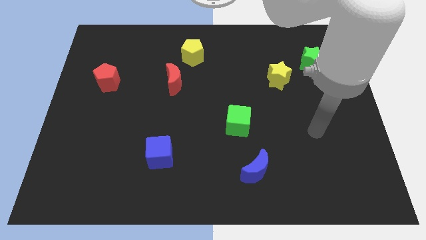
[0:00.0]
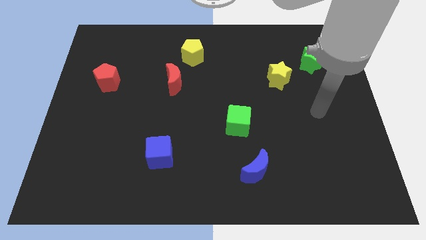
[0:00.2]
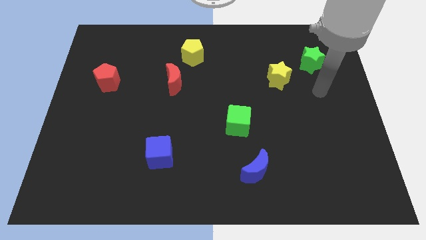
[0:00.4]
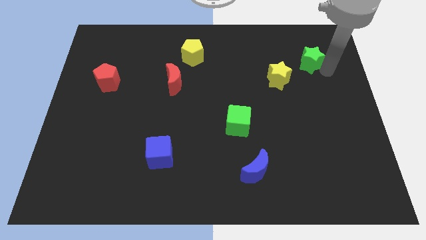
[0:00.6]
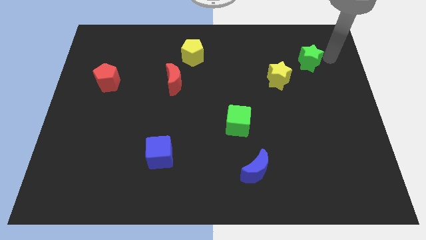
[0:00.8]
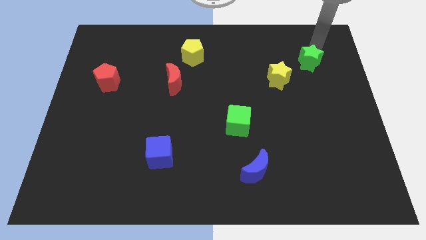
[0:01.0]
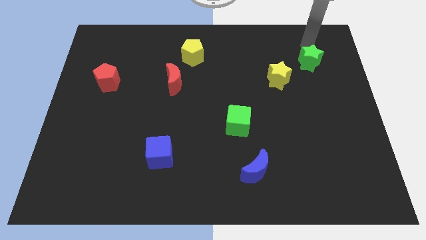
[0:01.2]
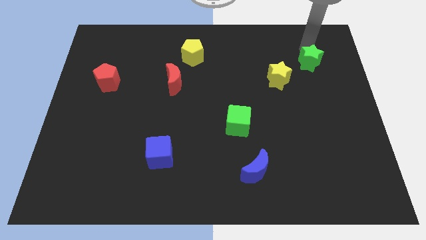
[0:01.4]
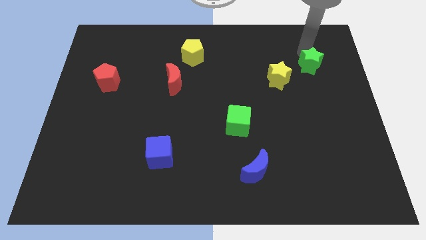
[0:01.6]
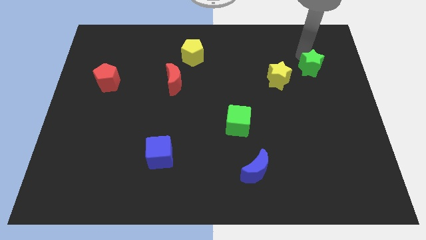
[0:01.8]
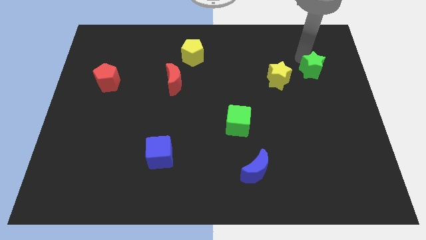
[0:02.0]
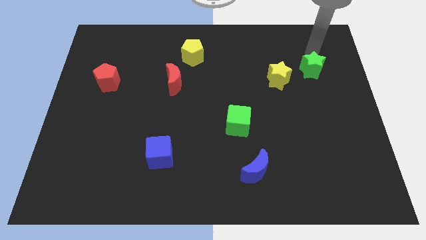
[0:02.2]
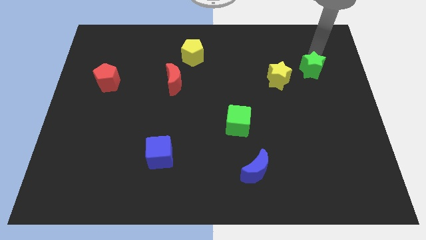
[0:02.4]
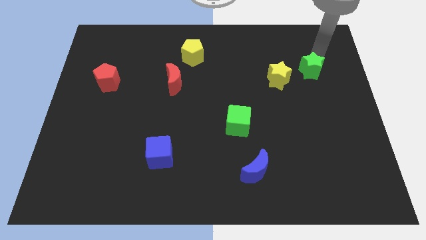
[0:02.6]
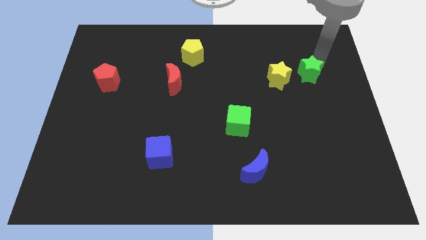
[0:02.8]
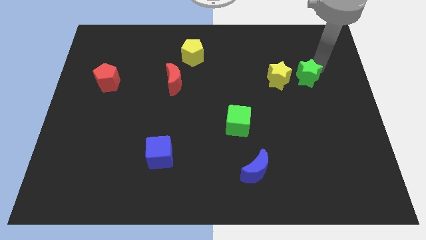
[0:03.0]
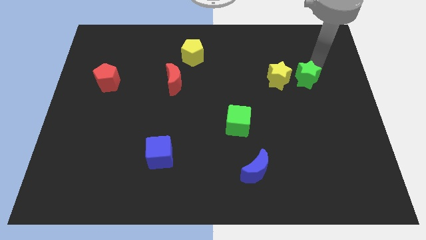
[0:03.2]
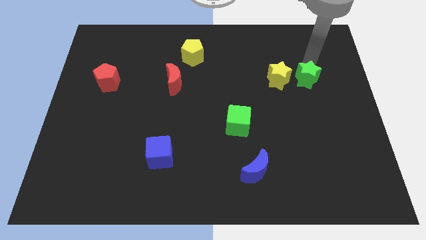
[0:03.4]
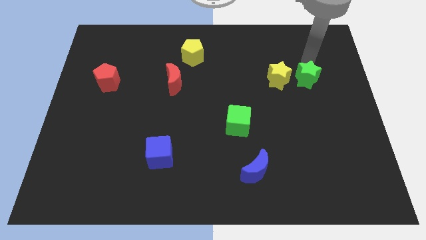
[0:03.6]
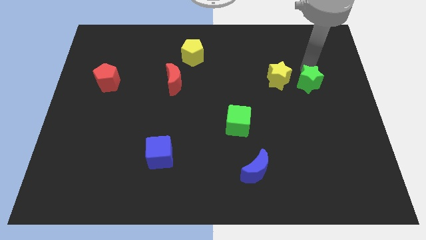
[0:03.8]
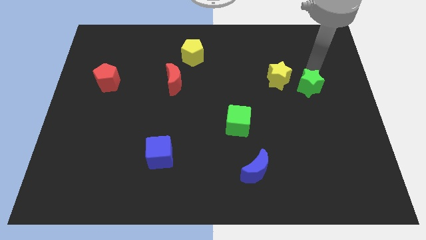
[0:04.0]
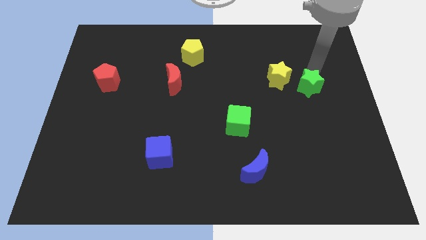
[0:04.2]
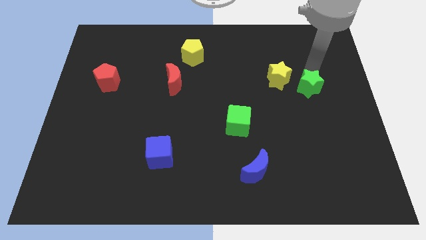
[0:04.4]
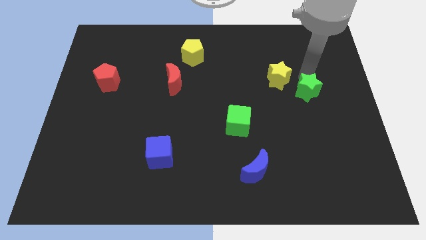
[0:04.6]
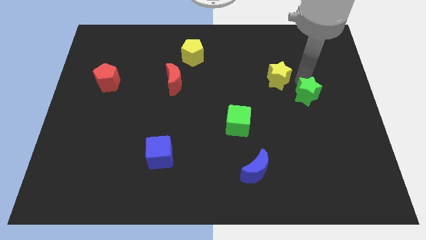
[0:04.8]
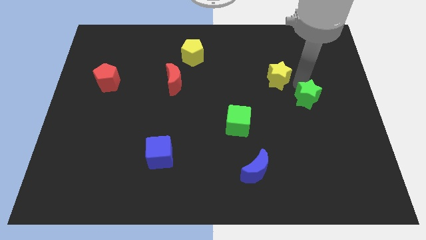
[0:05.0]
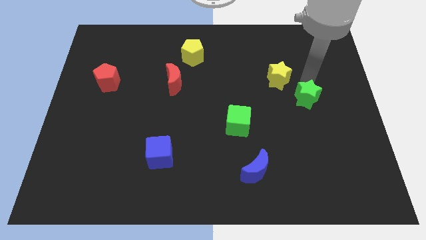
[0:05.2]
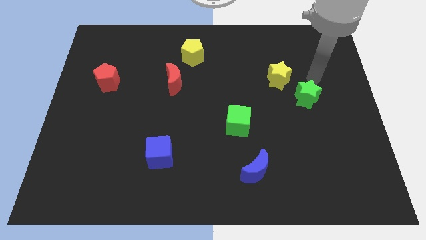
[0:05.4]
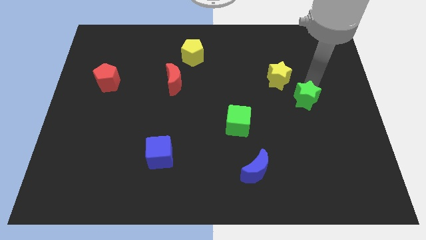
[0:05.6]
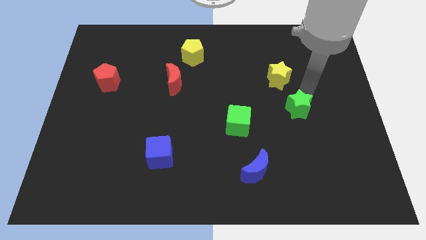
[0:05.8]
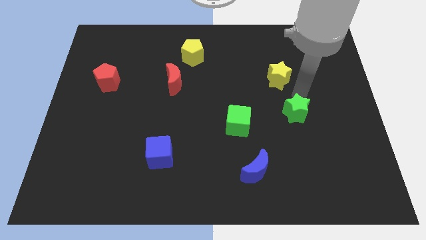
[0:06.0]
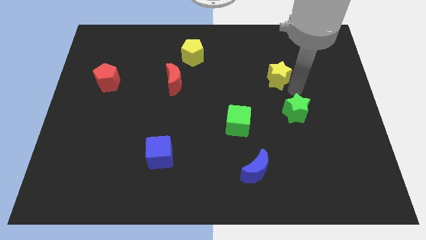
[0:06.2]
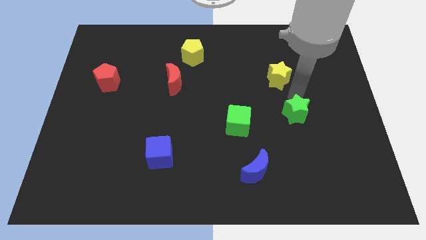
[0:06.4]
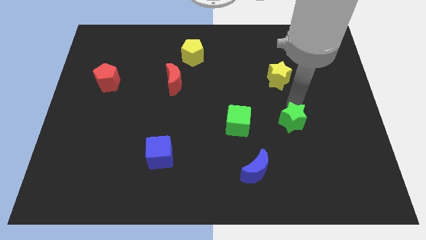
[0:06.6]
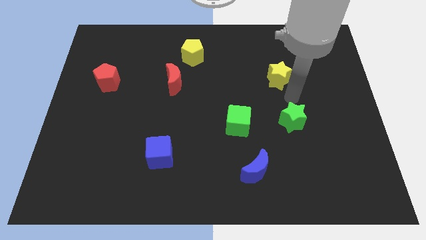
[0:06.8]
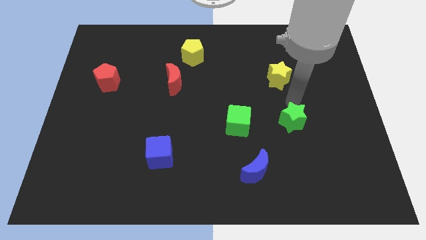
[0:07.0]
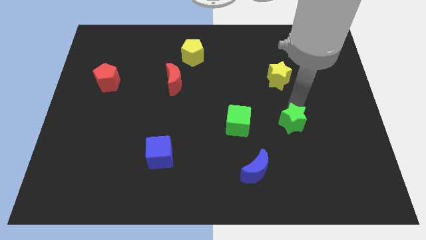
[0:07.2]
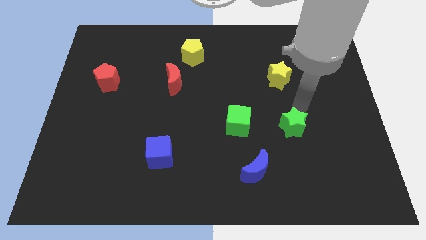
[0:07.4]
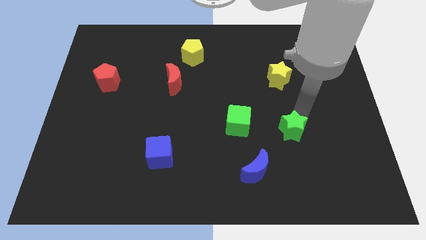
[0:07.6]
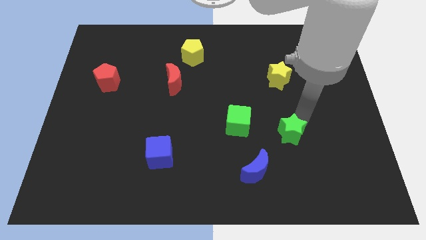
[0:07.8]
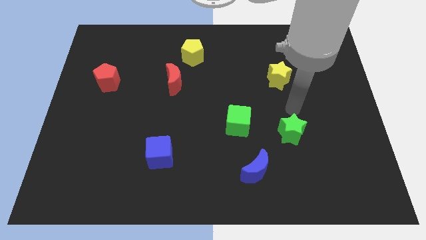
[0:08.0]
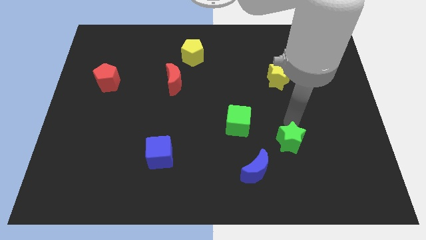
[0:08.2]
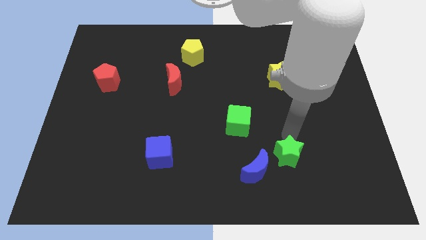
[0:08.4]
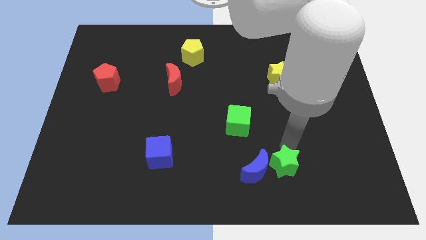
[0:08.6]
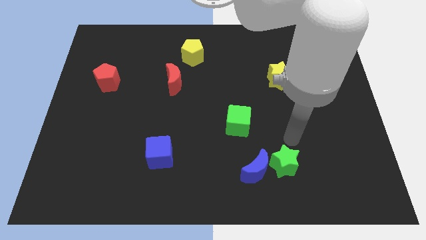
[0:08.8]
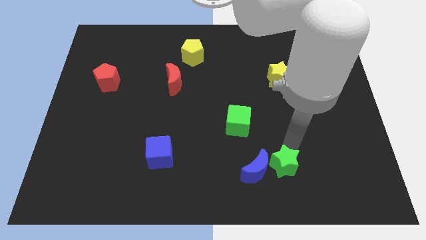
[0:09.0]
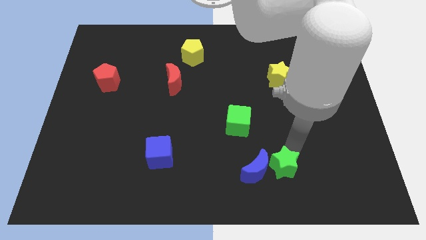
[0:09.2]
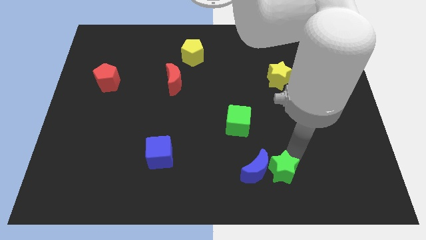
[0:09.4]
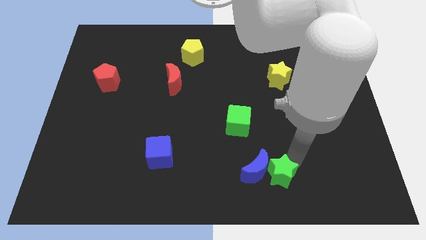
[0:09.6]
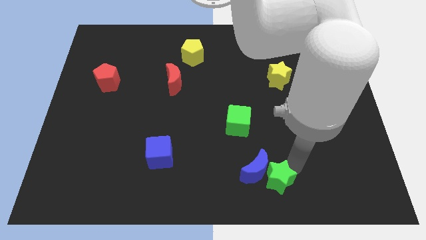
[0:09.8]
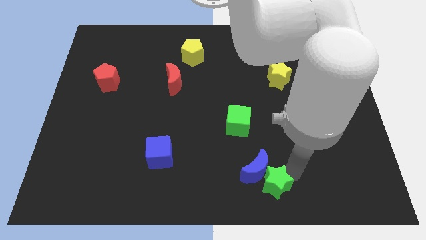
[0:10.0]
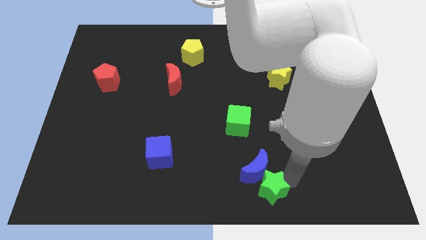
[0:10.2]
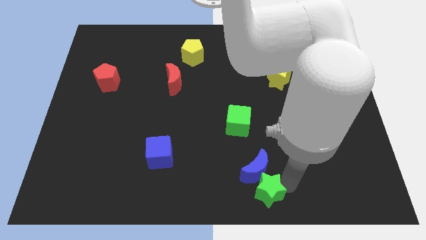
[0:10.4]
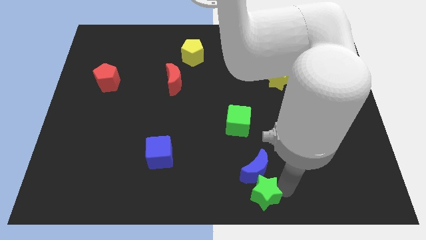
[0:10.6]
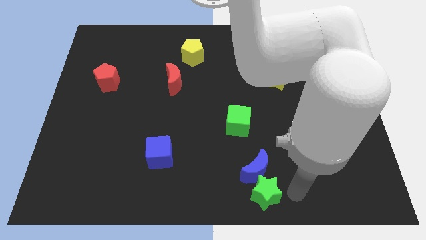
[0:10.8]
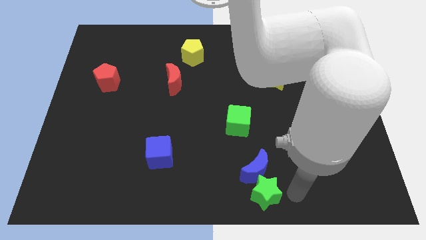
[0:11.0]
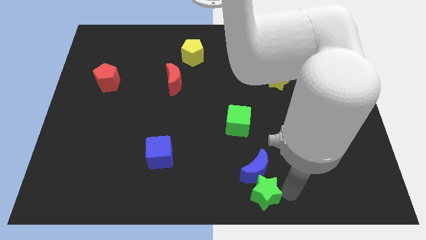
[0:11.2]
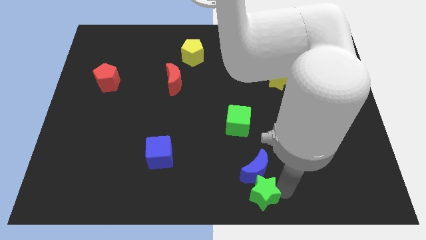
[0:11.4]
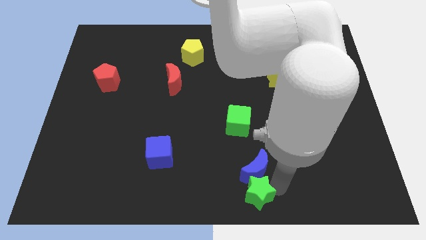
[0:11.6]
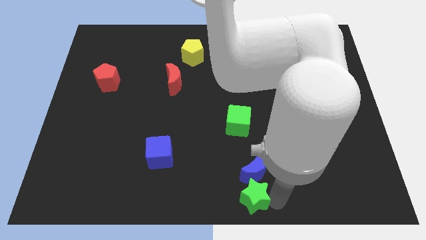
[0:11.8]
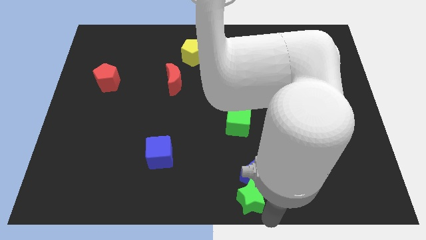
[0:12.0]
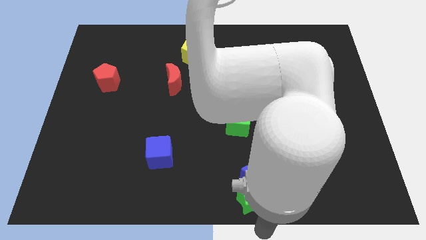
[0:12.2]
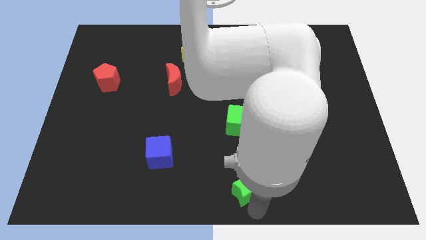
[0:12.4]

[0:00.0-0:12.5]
move the green star to the bottom of the green cube

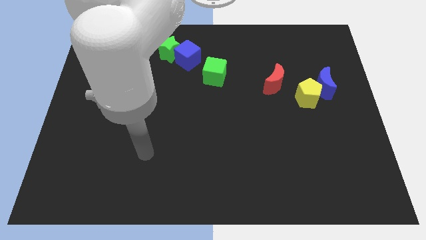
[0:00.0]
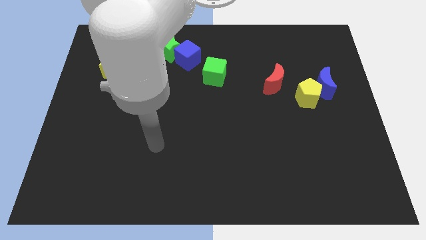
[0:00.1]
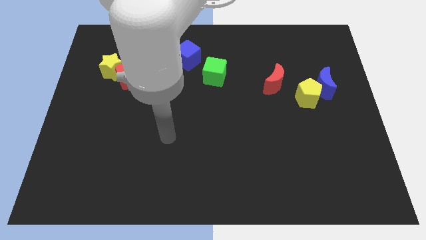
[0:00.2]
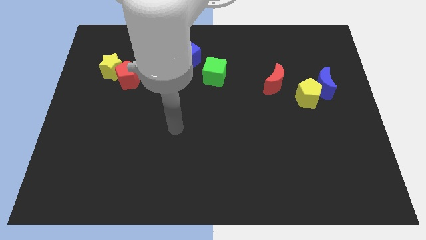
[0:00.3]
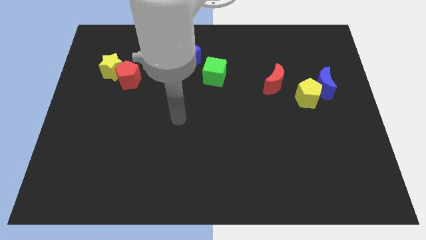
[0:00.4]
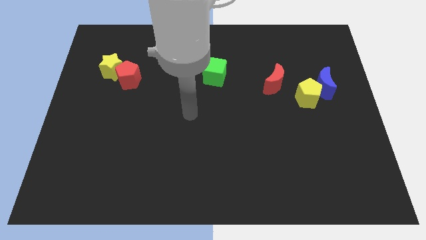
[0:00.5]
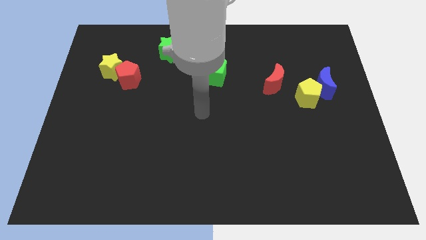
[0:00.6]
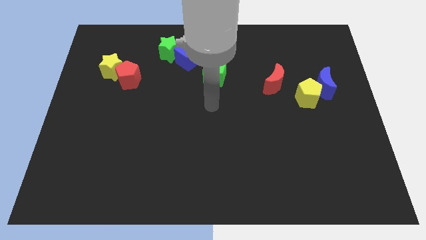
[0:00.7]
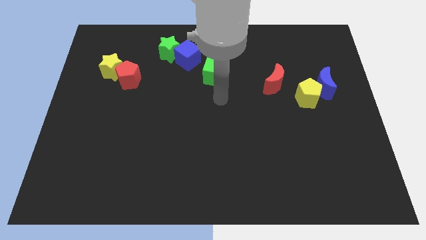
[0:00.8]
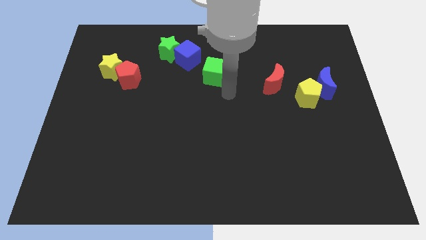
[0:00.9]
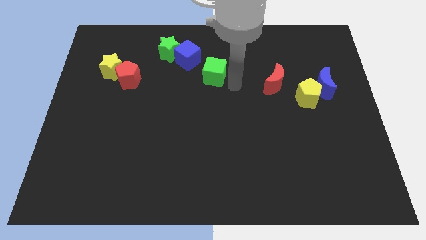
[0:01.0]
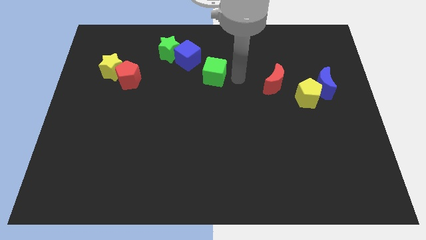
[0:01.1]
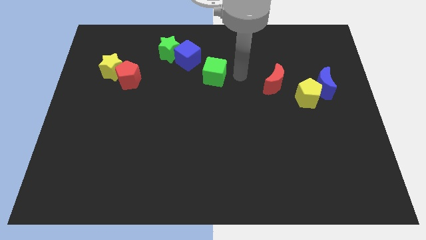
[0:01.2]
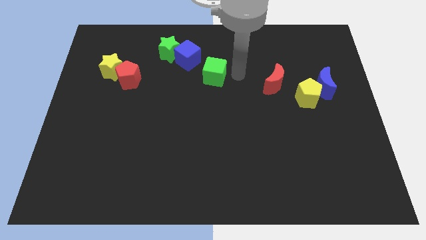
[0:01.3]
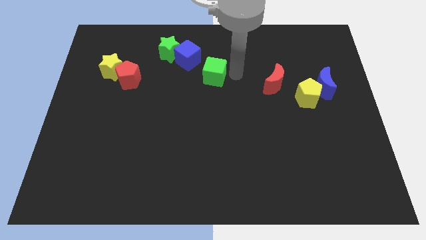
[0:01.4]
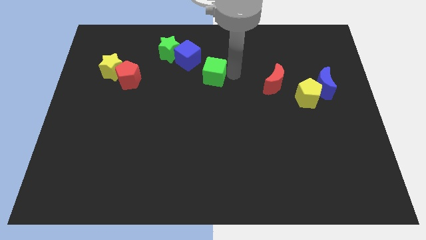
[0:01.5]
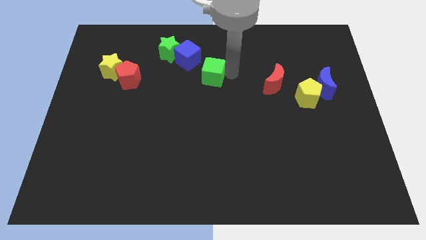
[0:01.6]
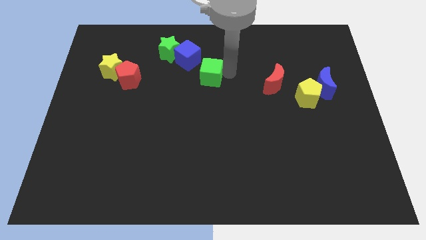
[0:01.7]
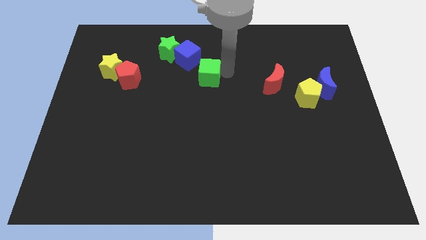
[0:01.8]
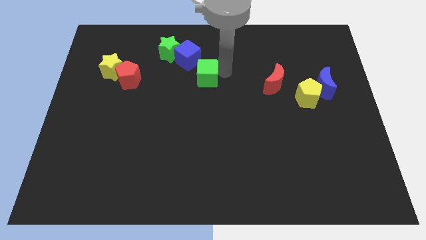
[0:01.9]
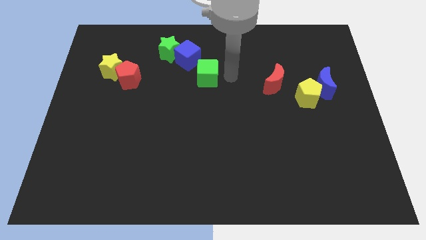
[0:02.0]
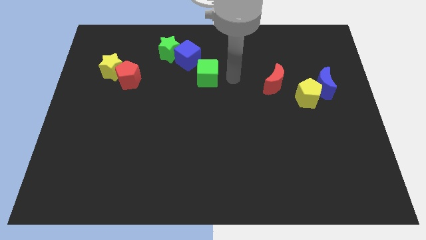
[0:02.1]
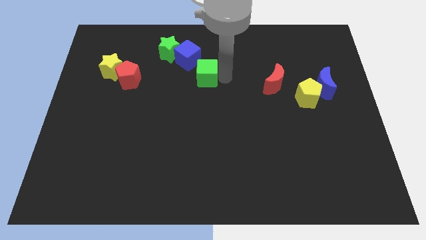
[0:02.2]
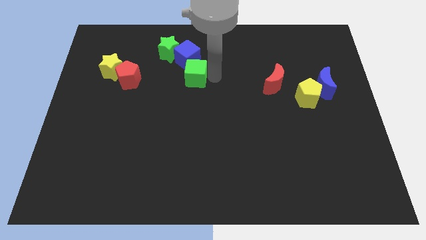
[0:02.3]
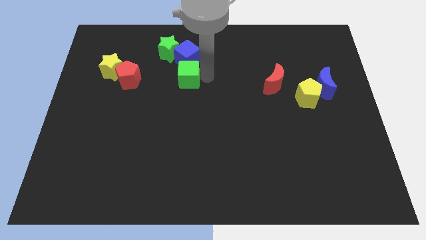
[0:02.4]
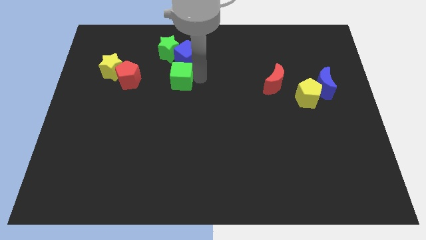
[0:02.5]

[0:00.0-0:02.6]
slide the green cube to the bottom left of the blue cube
